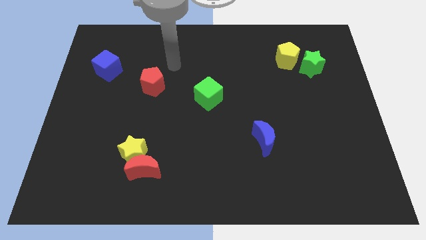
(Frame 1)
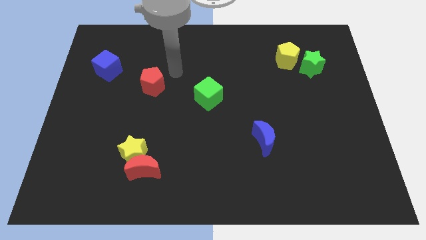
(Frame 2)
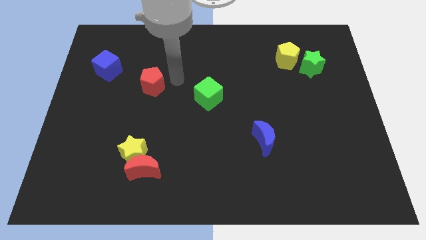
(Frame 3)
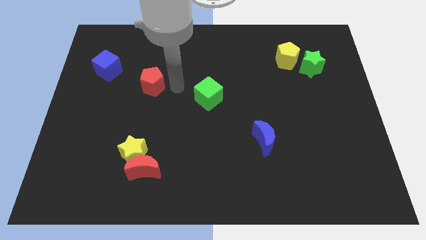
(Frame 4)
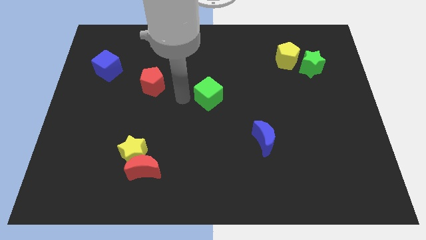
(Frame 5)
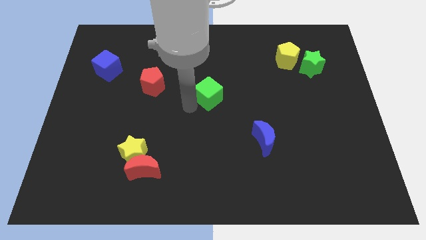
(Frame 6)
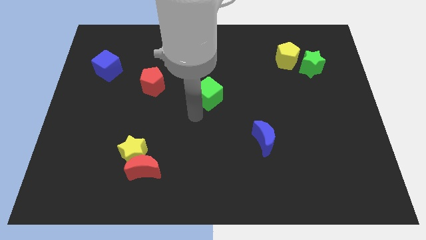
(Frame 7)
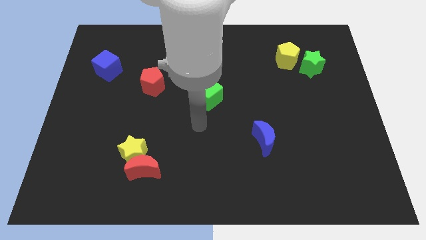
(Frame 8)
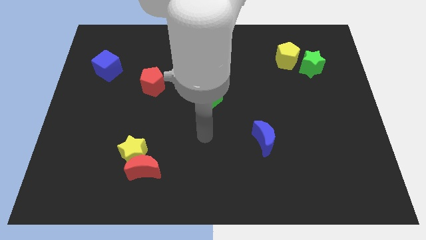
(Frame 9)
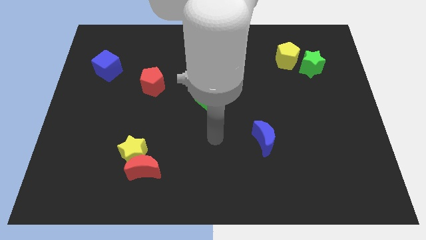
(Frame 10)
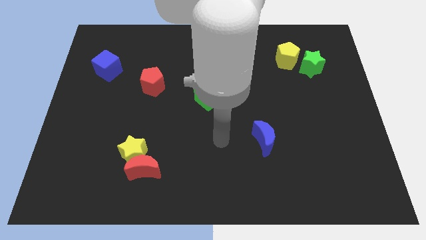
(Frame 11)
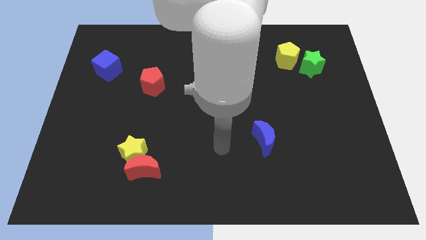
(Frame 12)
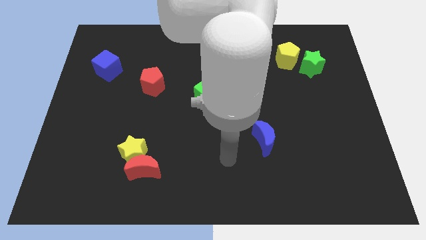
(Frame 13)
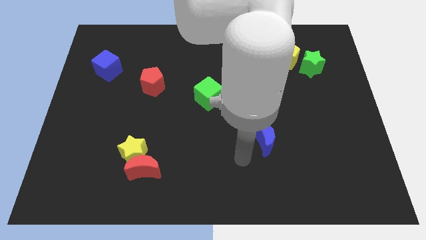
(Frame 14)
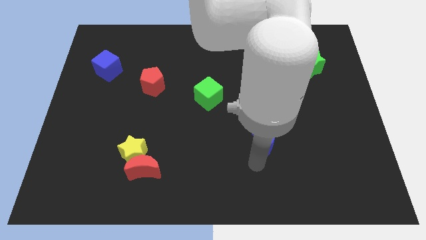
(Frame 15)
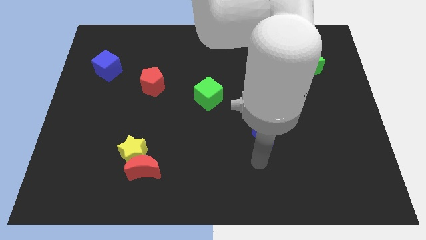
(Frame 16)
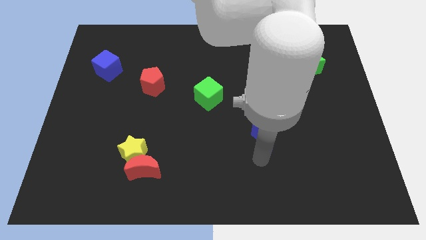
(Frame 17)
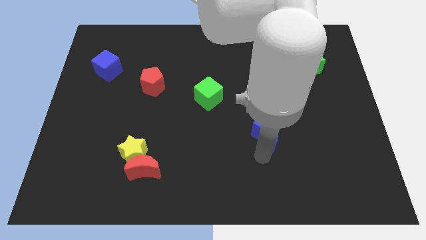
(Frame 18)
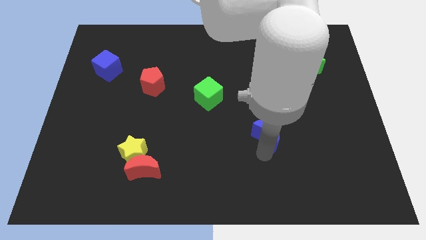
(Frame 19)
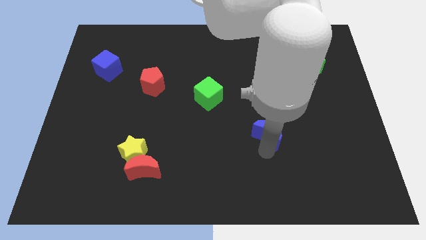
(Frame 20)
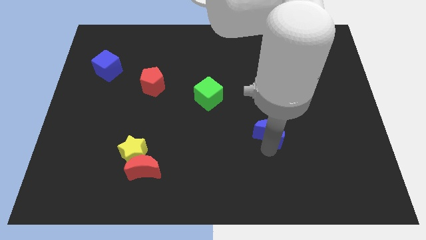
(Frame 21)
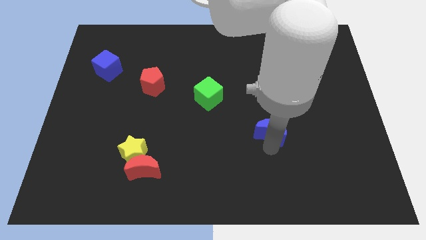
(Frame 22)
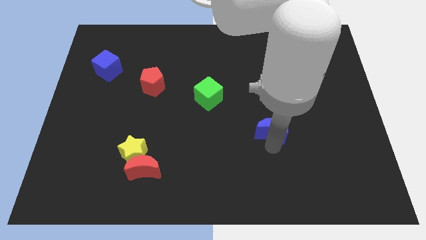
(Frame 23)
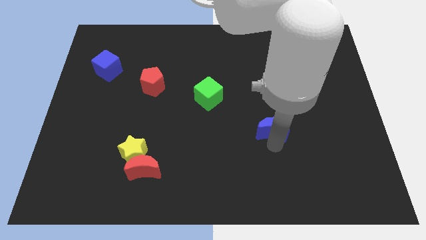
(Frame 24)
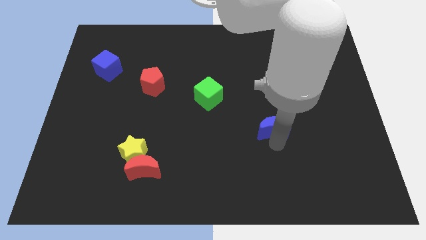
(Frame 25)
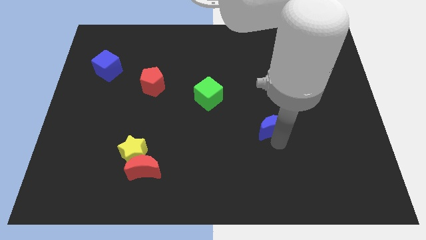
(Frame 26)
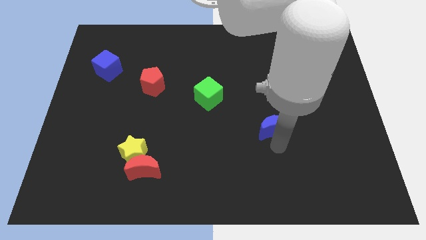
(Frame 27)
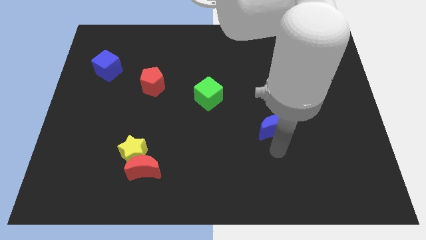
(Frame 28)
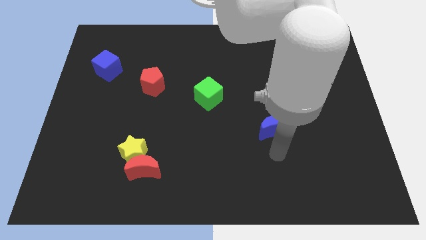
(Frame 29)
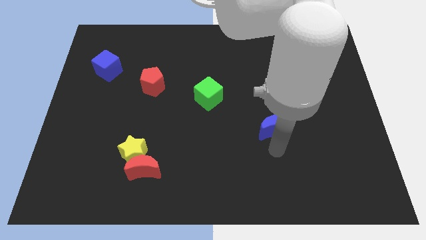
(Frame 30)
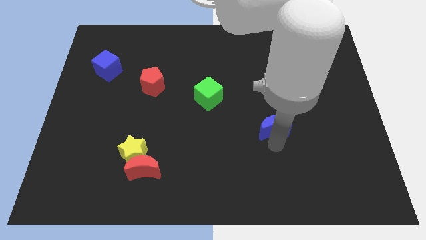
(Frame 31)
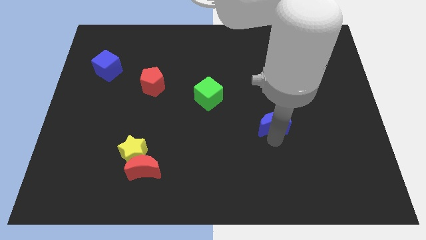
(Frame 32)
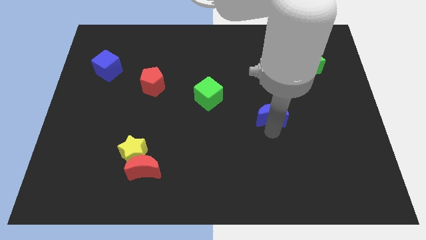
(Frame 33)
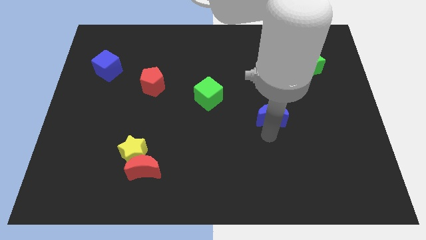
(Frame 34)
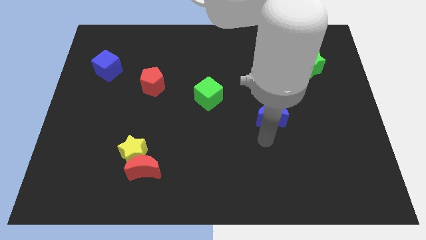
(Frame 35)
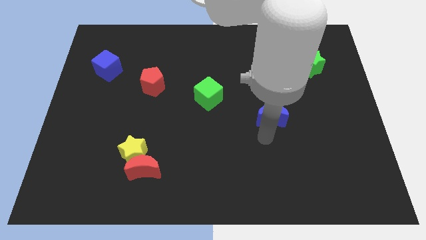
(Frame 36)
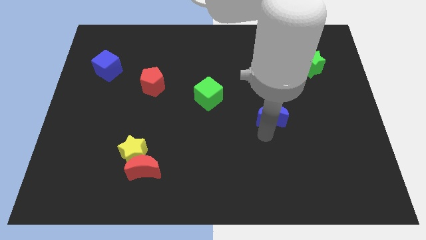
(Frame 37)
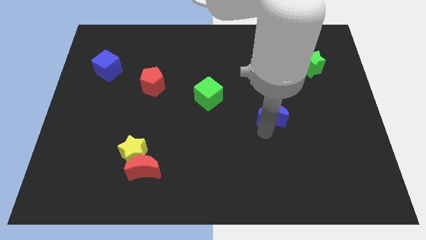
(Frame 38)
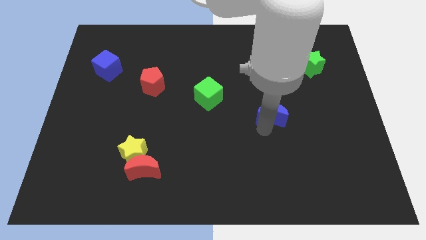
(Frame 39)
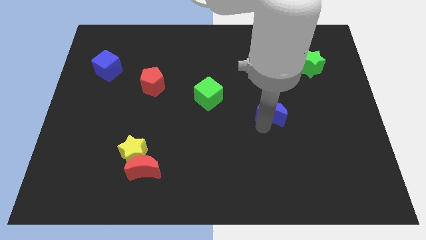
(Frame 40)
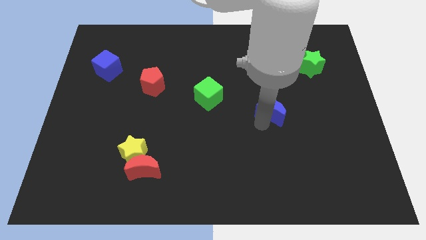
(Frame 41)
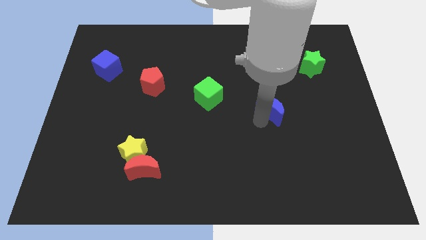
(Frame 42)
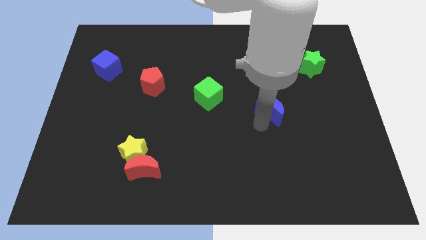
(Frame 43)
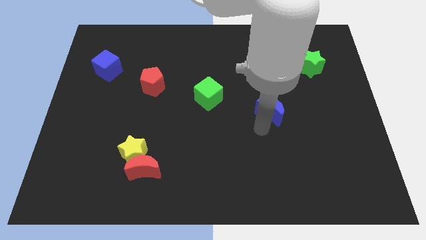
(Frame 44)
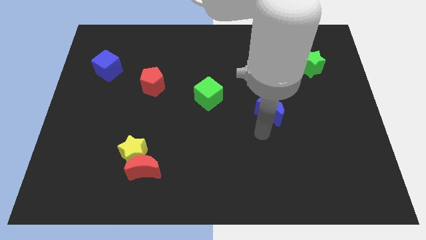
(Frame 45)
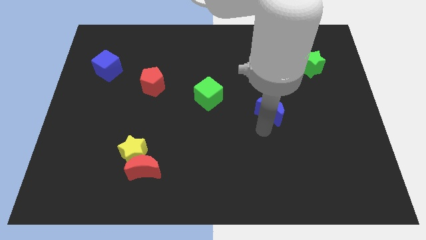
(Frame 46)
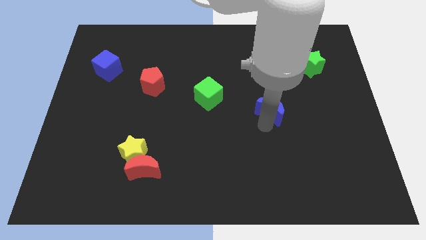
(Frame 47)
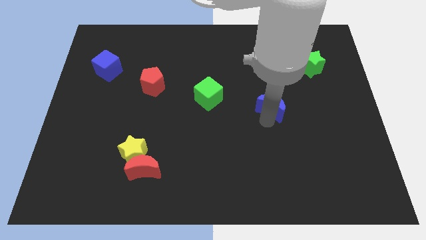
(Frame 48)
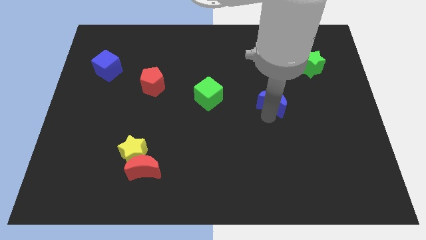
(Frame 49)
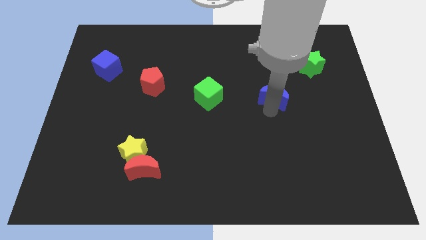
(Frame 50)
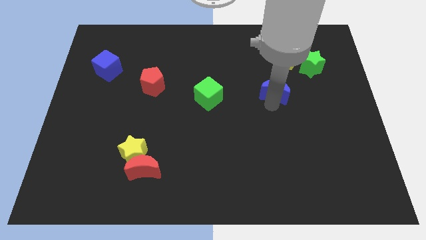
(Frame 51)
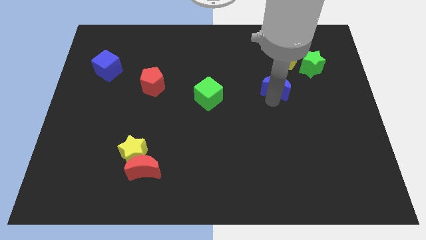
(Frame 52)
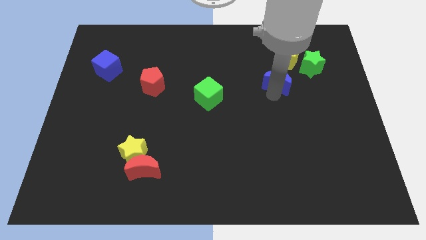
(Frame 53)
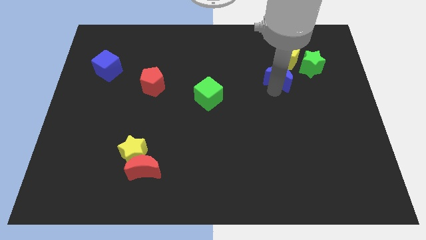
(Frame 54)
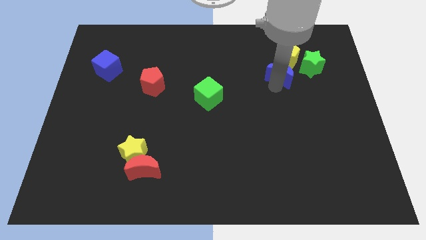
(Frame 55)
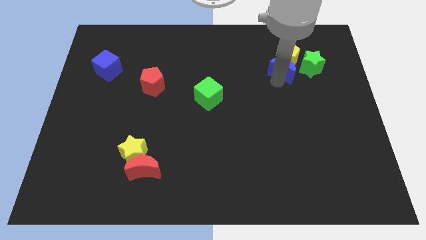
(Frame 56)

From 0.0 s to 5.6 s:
push the blue moon next to the yellow pentagon
